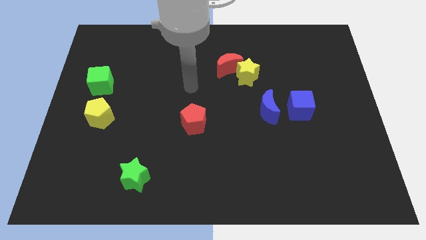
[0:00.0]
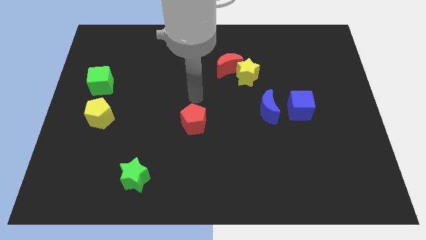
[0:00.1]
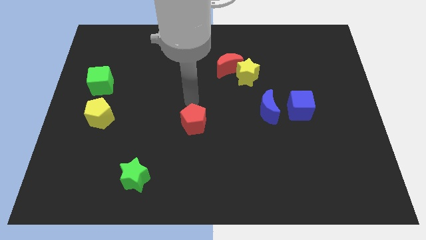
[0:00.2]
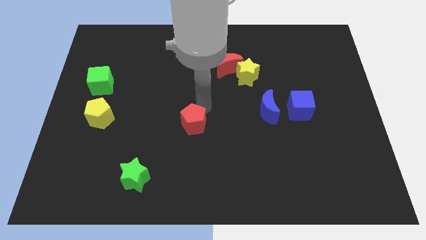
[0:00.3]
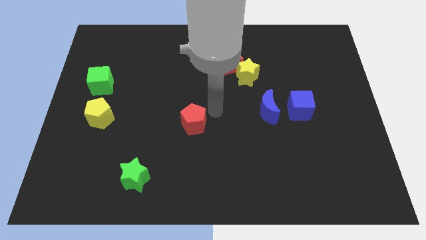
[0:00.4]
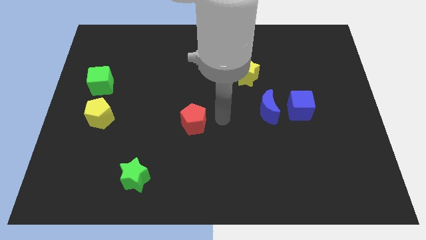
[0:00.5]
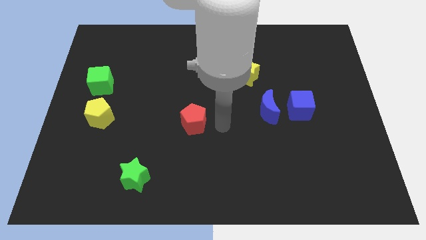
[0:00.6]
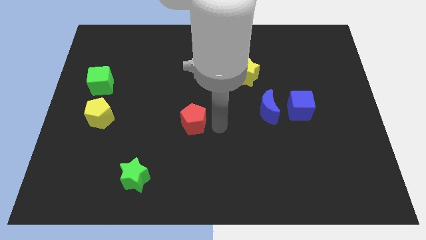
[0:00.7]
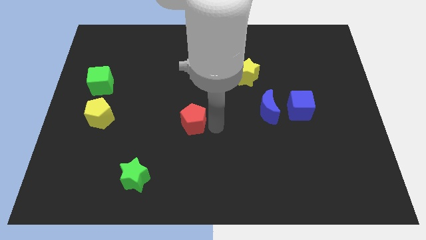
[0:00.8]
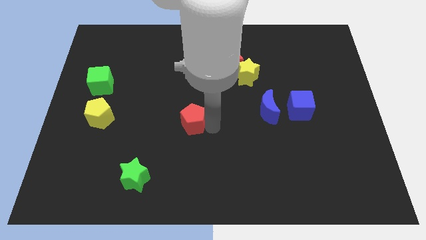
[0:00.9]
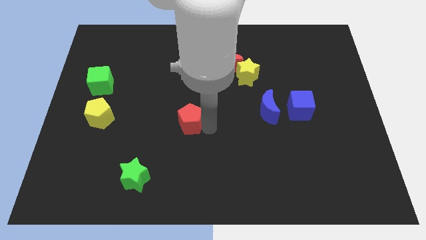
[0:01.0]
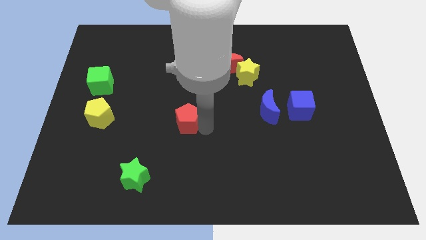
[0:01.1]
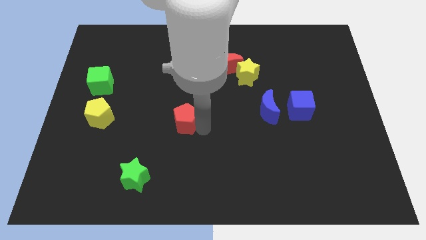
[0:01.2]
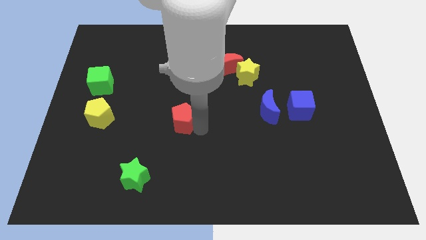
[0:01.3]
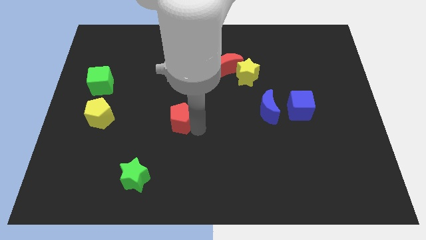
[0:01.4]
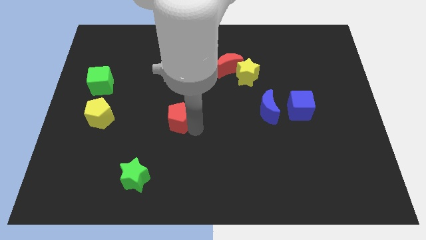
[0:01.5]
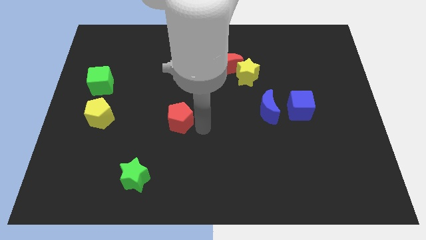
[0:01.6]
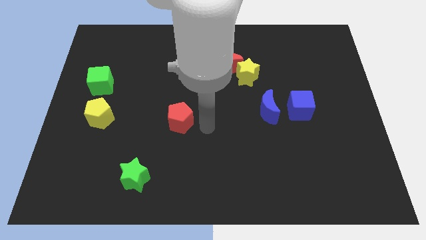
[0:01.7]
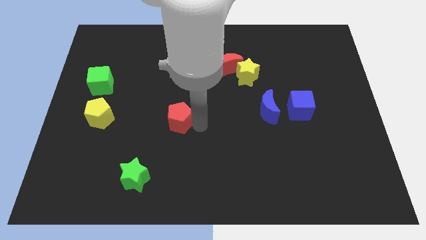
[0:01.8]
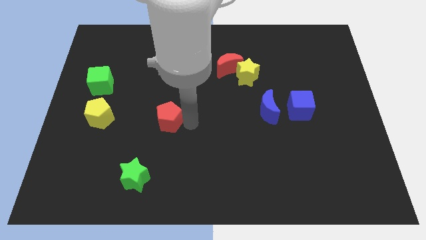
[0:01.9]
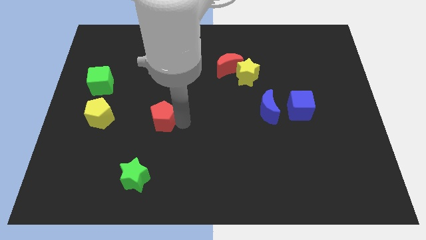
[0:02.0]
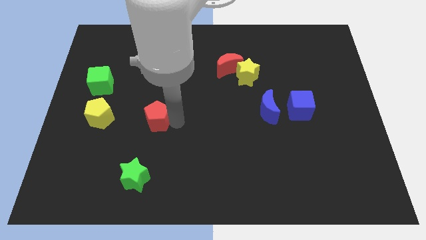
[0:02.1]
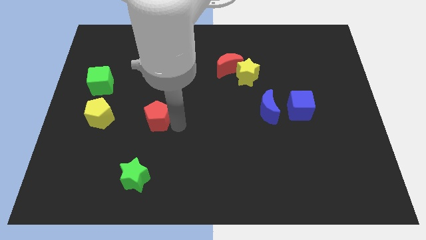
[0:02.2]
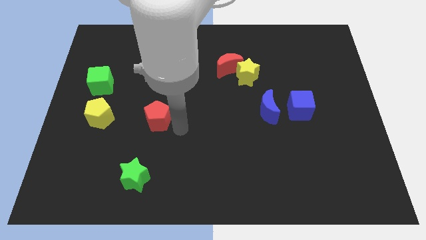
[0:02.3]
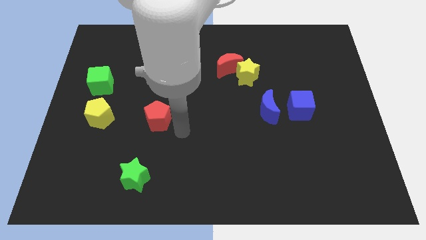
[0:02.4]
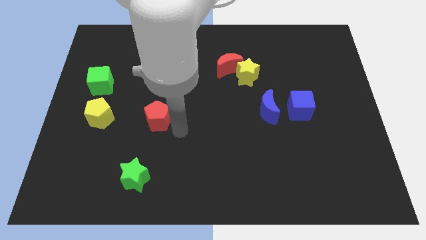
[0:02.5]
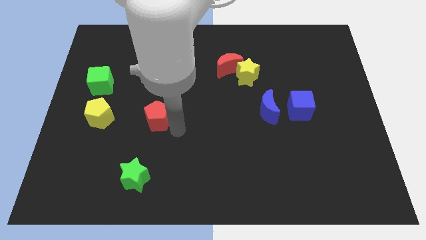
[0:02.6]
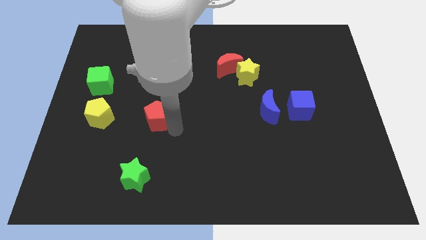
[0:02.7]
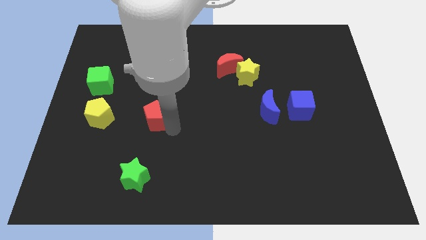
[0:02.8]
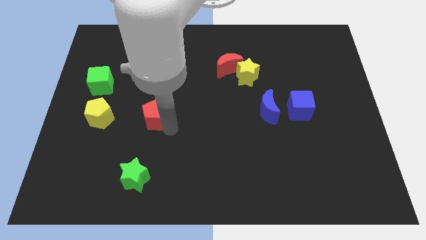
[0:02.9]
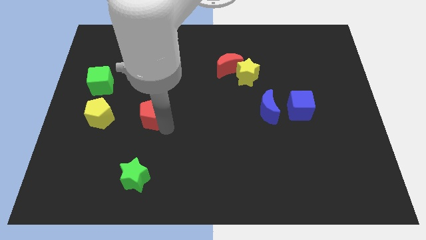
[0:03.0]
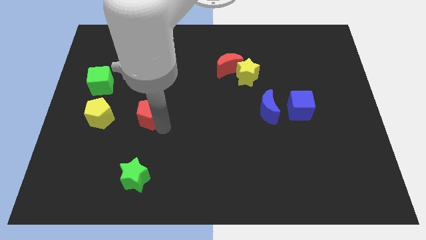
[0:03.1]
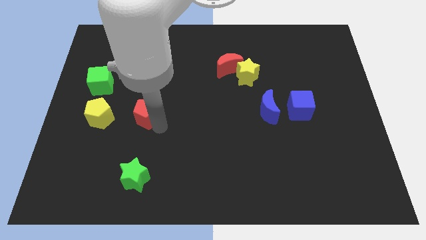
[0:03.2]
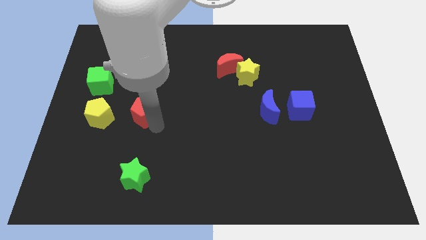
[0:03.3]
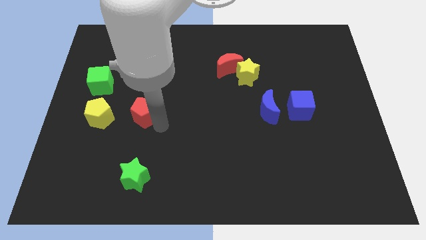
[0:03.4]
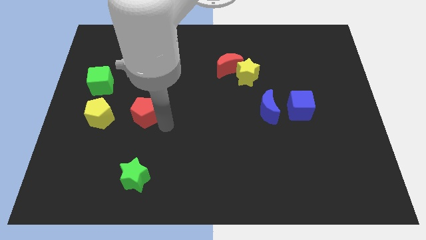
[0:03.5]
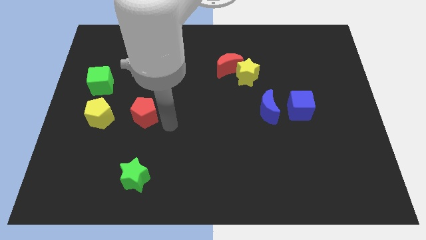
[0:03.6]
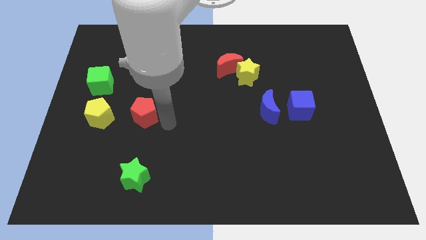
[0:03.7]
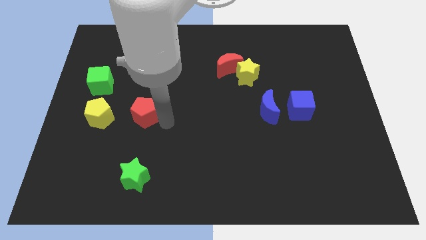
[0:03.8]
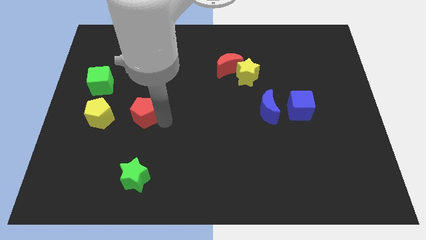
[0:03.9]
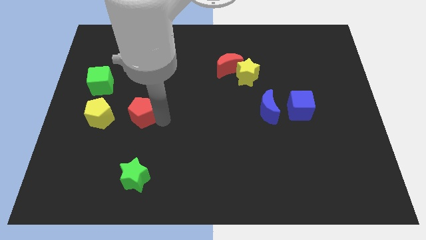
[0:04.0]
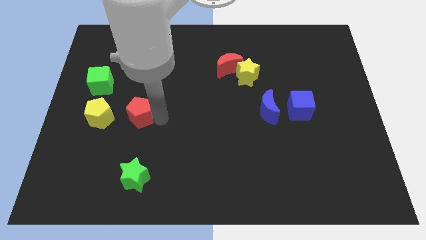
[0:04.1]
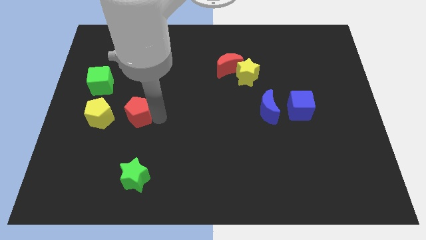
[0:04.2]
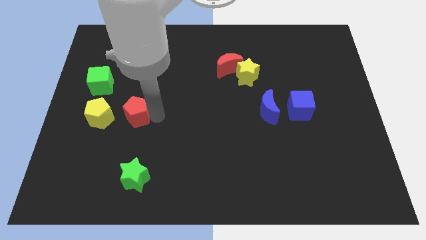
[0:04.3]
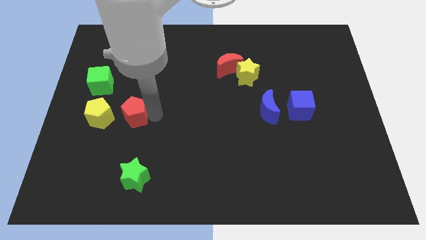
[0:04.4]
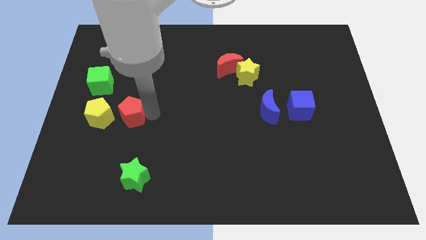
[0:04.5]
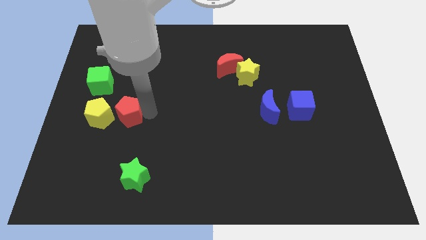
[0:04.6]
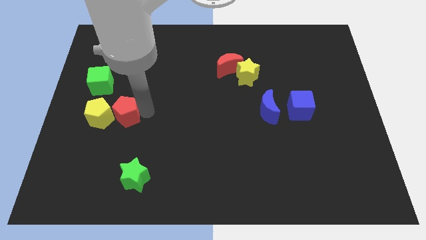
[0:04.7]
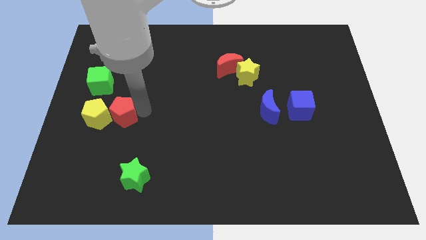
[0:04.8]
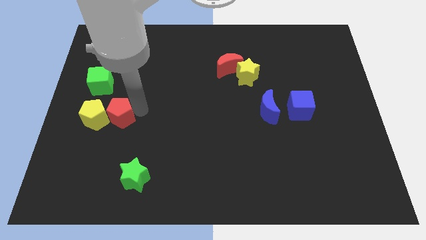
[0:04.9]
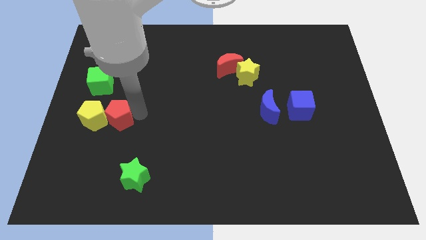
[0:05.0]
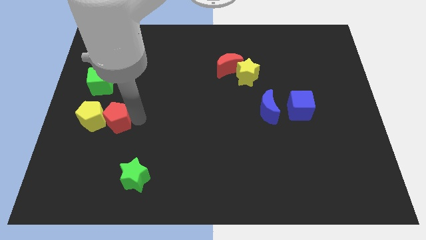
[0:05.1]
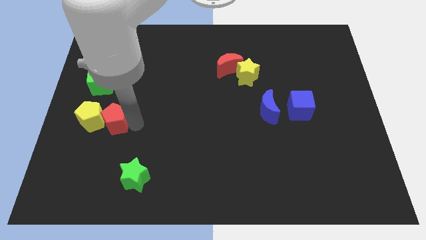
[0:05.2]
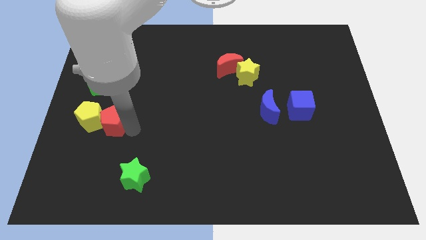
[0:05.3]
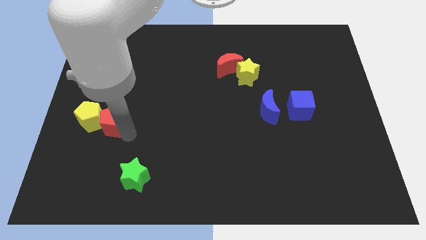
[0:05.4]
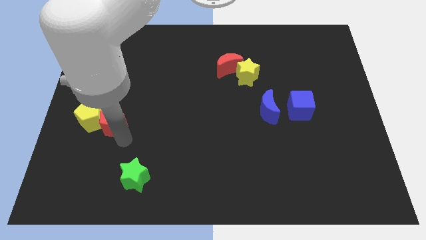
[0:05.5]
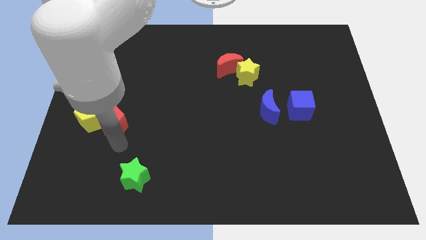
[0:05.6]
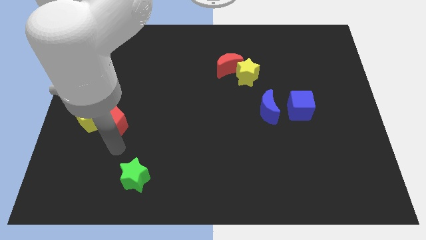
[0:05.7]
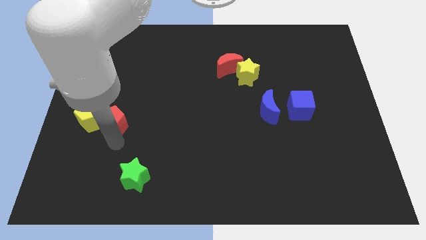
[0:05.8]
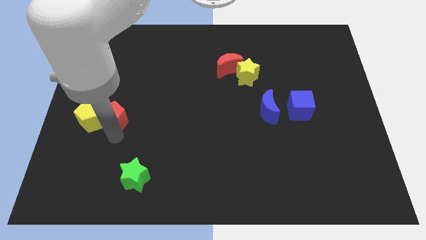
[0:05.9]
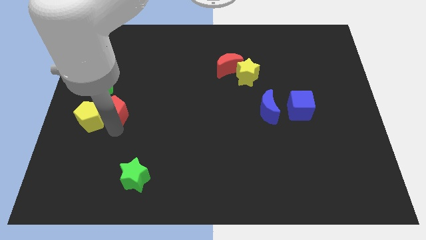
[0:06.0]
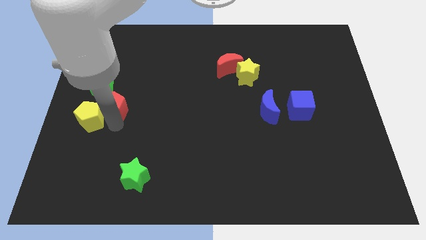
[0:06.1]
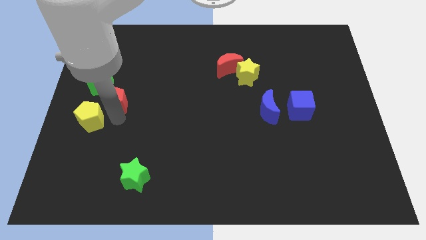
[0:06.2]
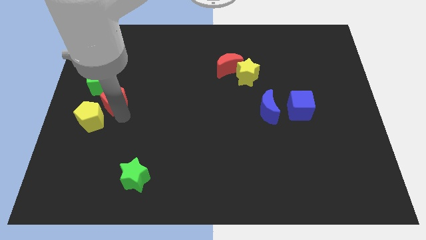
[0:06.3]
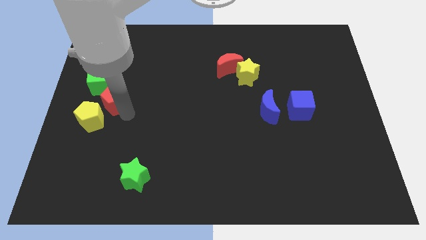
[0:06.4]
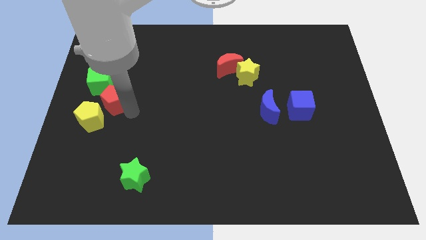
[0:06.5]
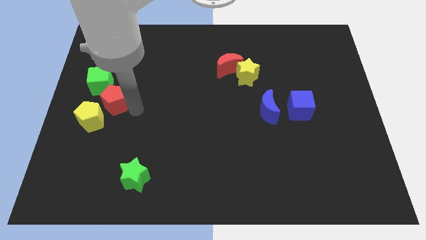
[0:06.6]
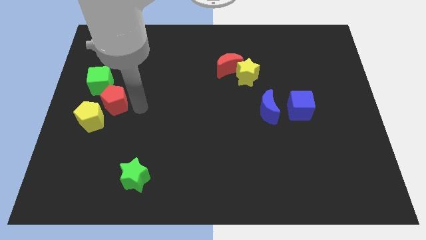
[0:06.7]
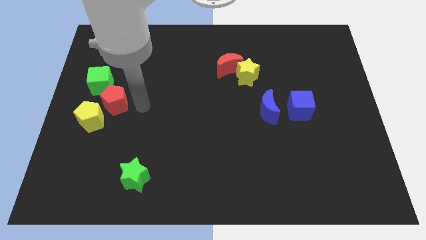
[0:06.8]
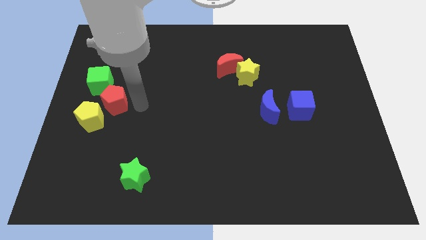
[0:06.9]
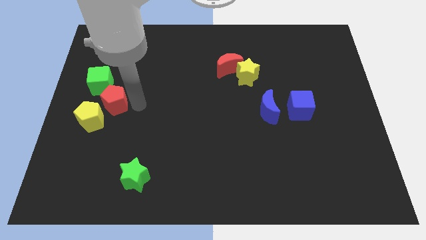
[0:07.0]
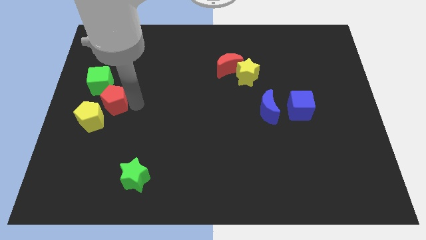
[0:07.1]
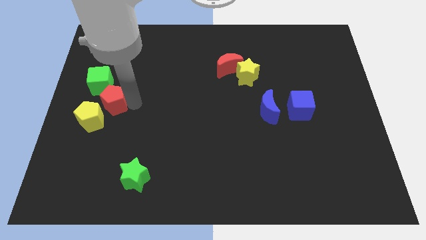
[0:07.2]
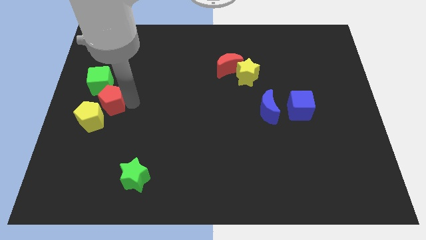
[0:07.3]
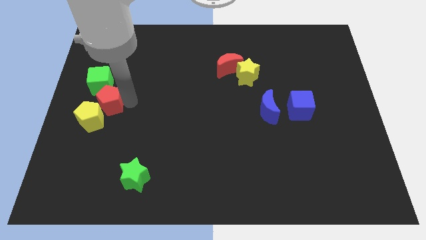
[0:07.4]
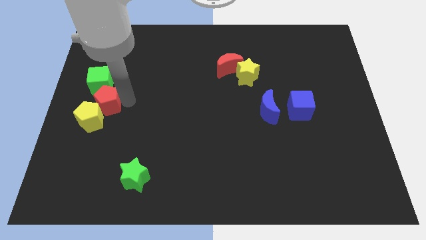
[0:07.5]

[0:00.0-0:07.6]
slide the red pentagon to the left side
